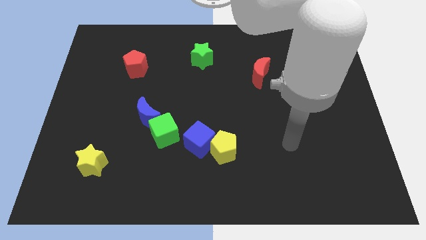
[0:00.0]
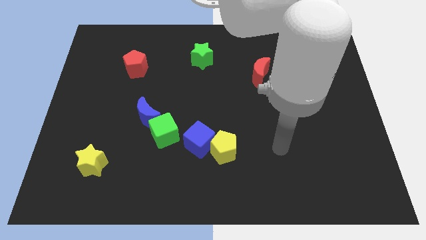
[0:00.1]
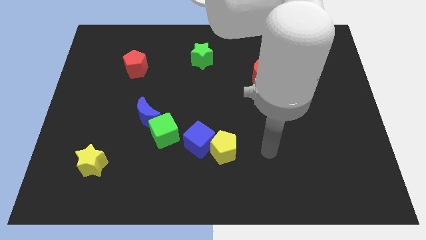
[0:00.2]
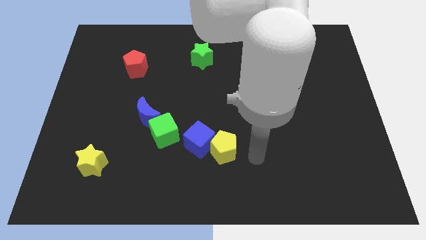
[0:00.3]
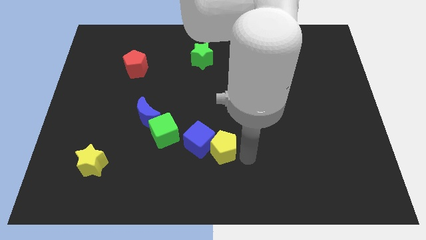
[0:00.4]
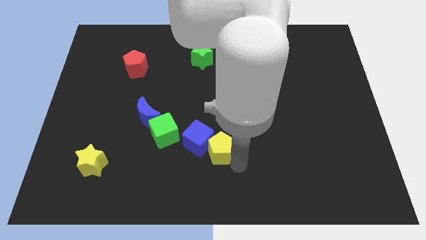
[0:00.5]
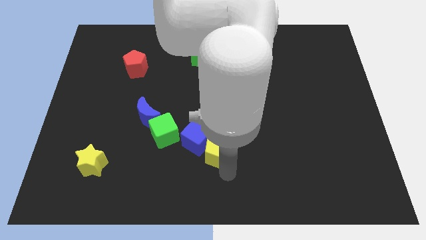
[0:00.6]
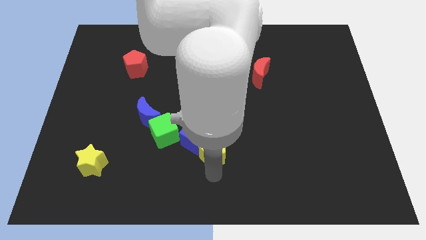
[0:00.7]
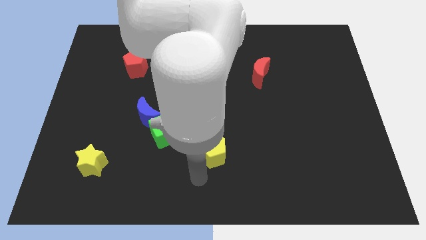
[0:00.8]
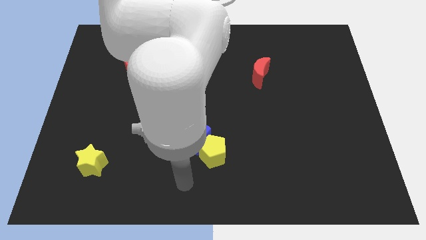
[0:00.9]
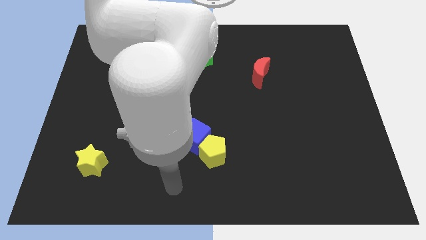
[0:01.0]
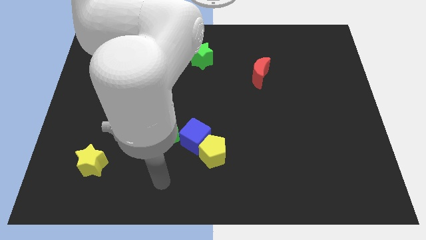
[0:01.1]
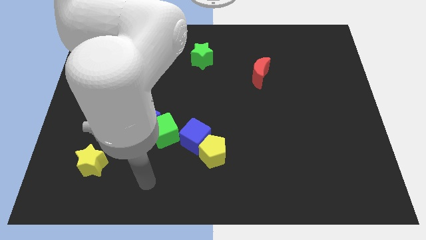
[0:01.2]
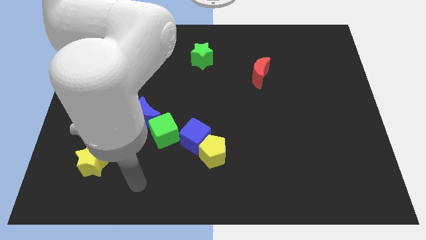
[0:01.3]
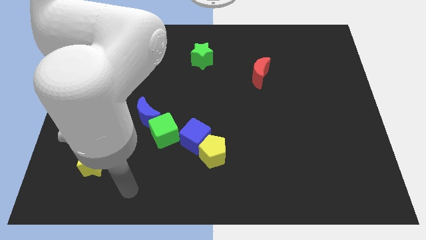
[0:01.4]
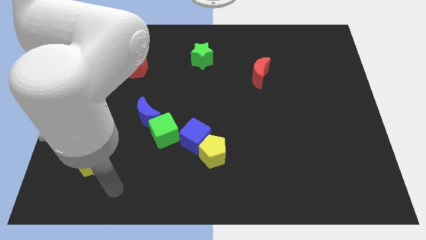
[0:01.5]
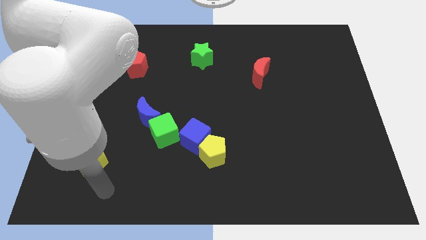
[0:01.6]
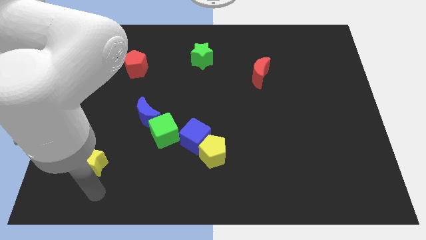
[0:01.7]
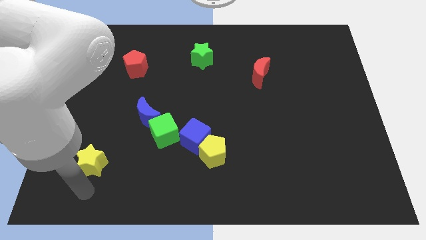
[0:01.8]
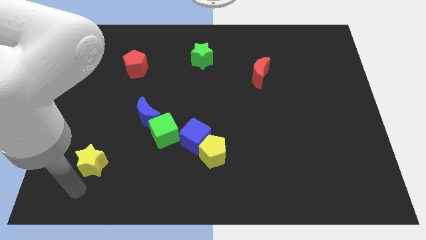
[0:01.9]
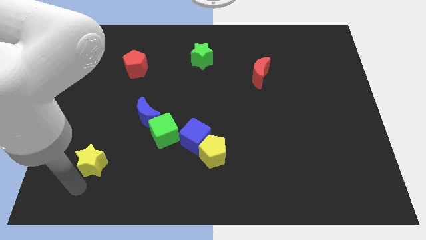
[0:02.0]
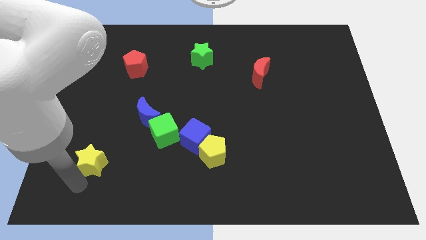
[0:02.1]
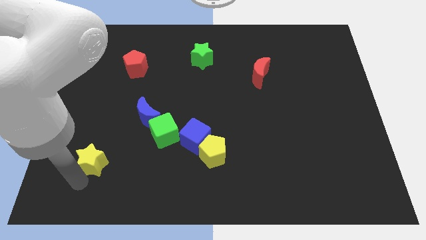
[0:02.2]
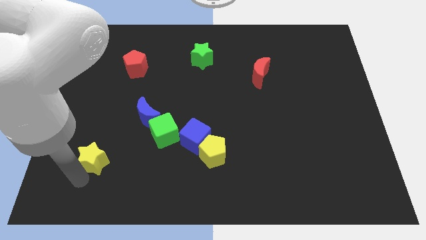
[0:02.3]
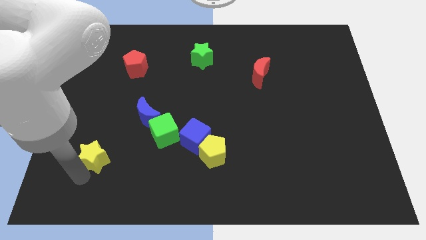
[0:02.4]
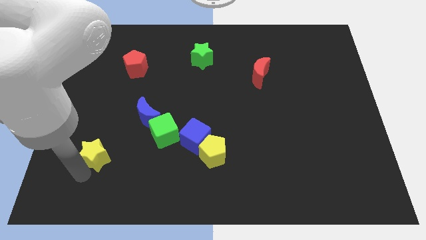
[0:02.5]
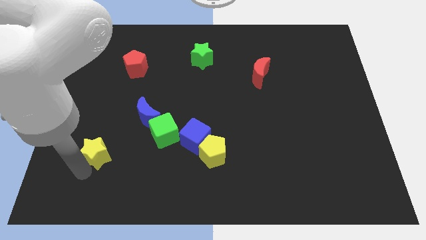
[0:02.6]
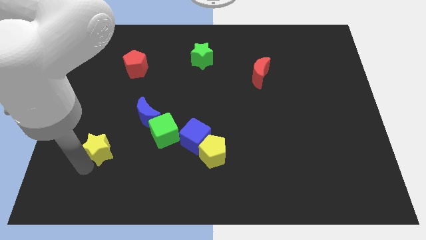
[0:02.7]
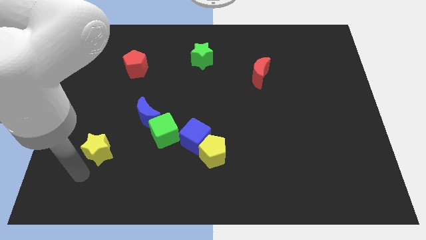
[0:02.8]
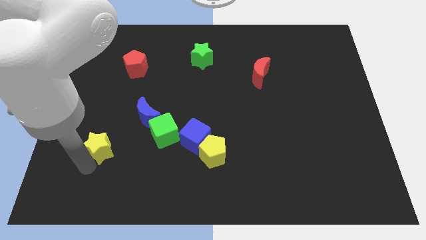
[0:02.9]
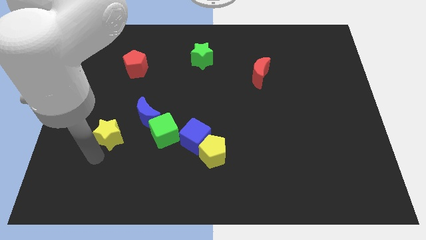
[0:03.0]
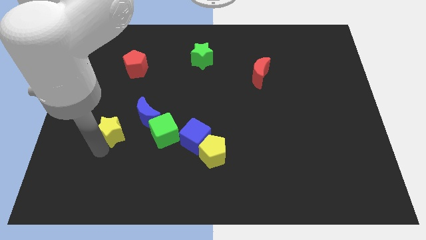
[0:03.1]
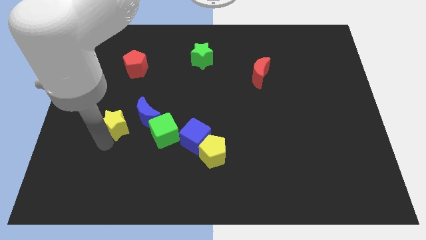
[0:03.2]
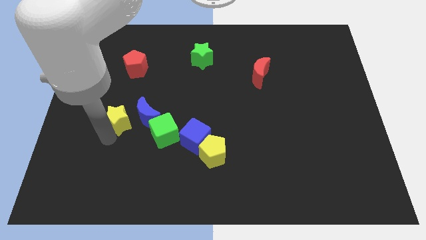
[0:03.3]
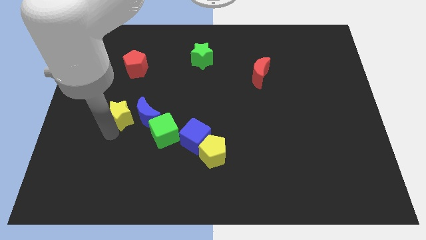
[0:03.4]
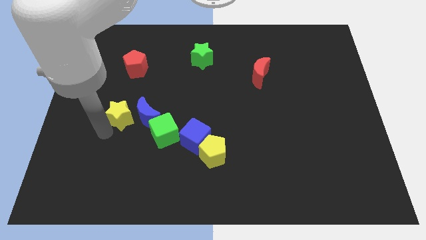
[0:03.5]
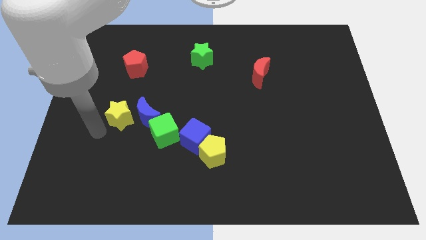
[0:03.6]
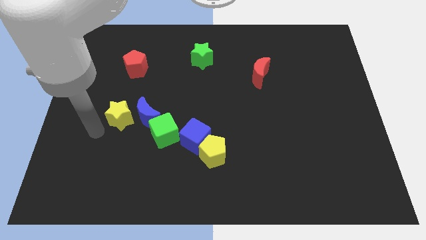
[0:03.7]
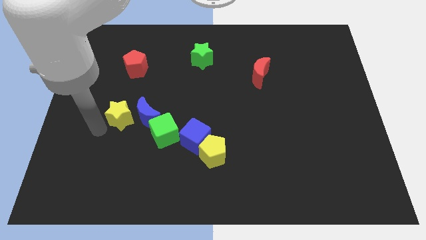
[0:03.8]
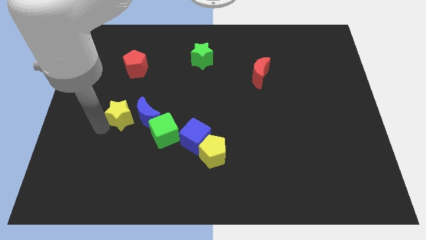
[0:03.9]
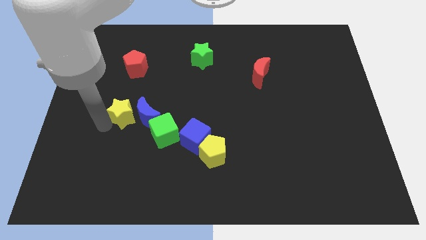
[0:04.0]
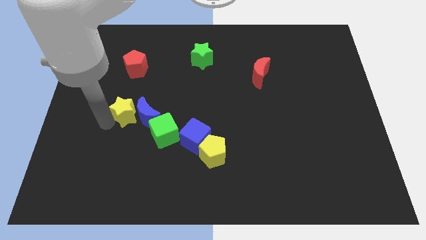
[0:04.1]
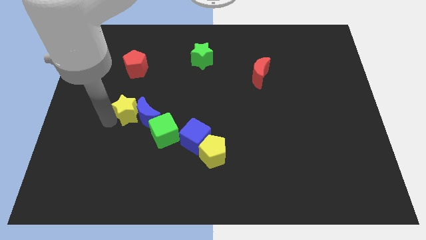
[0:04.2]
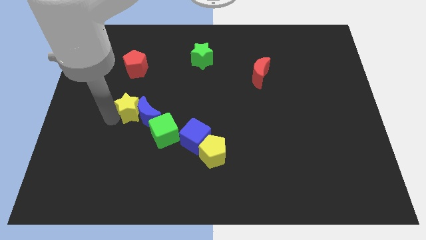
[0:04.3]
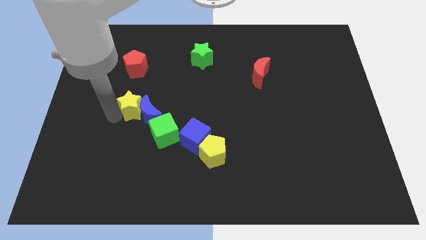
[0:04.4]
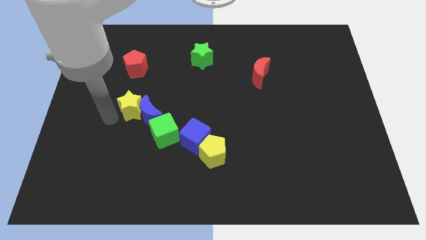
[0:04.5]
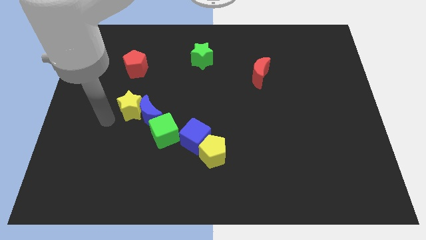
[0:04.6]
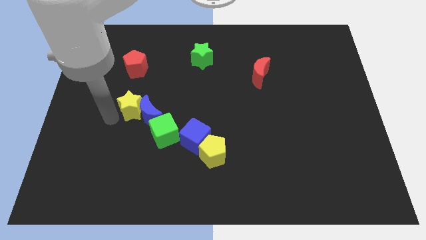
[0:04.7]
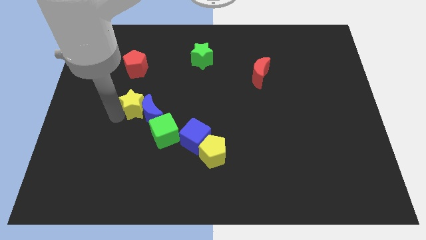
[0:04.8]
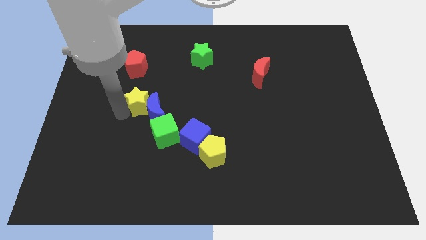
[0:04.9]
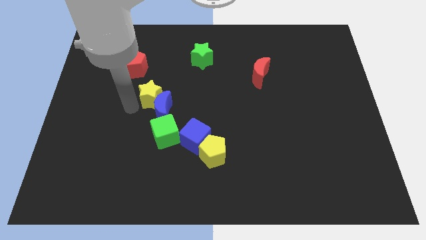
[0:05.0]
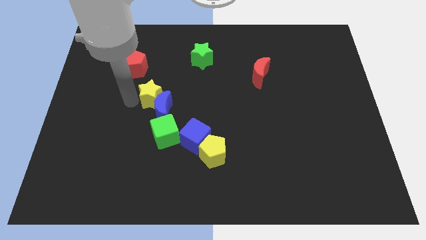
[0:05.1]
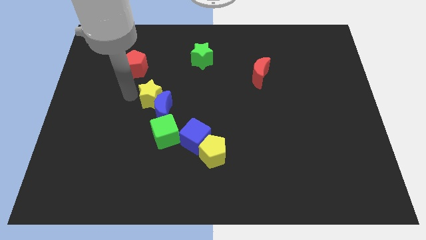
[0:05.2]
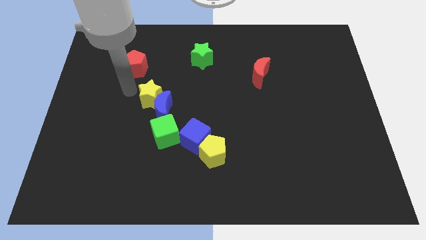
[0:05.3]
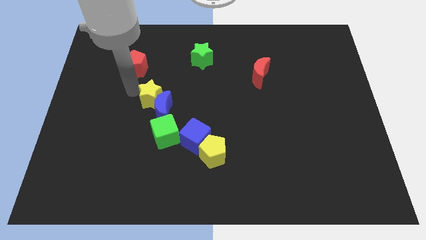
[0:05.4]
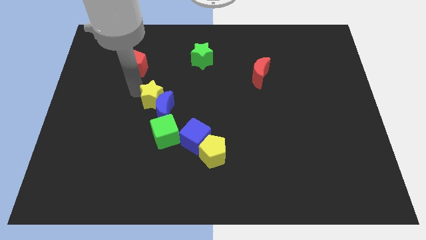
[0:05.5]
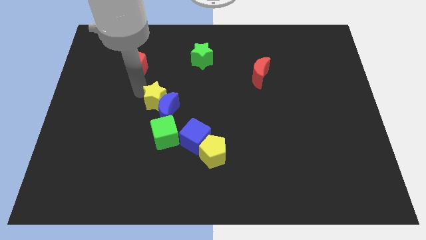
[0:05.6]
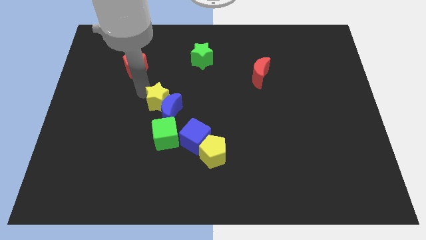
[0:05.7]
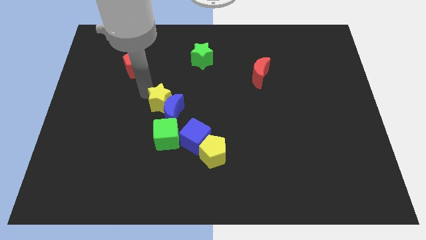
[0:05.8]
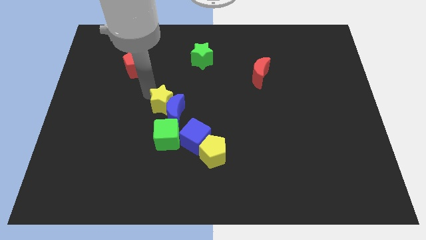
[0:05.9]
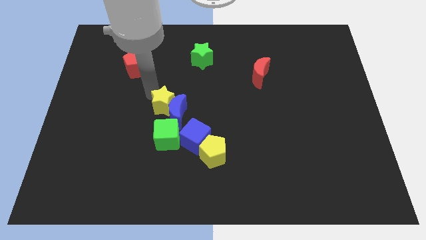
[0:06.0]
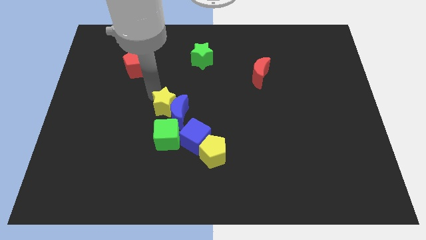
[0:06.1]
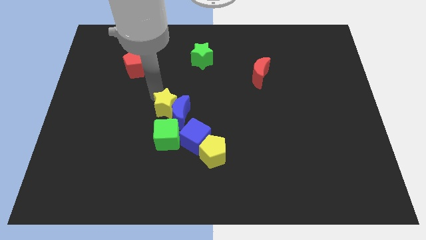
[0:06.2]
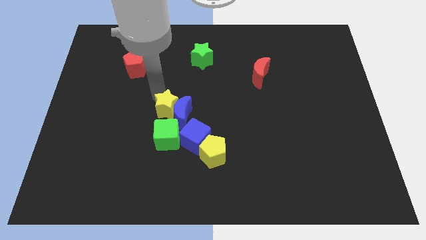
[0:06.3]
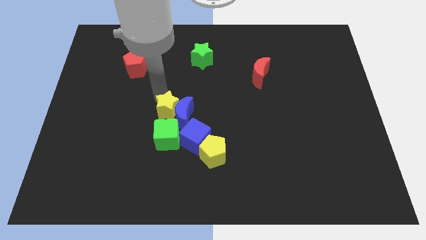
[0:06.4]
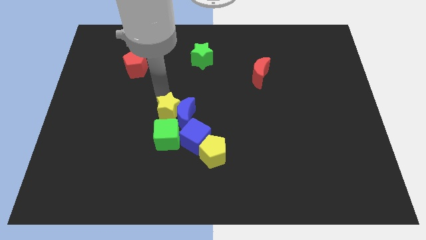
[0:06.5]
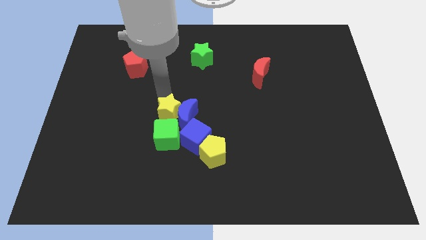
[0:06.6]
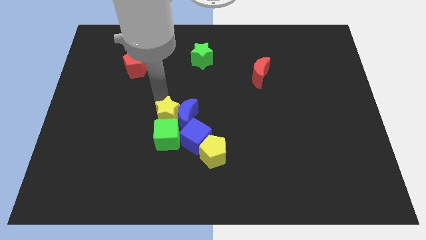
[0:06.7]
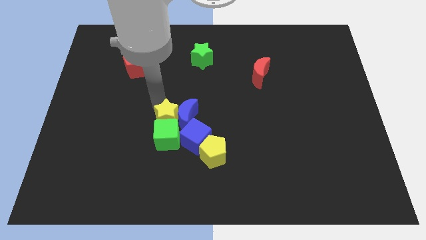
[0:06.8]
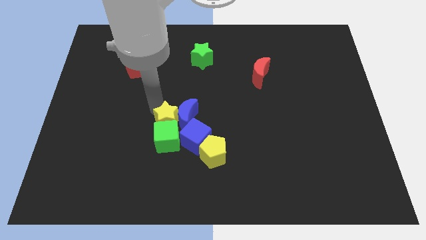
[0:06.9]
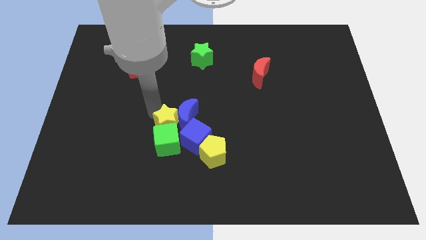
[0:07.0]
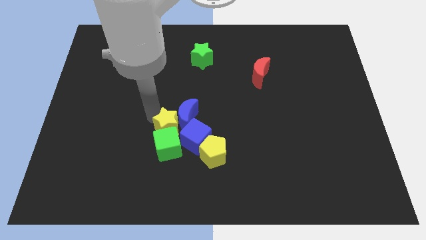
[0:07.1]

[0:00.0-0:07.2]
slide the yellow star diagonally up and to the left of the yellow pentagon
